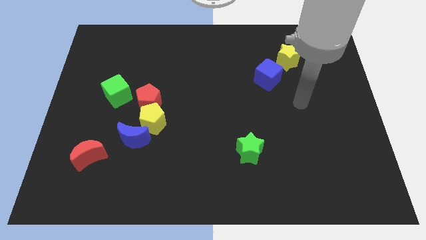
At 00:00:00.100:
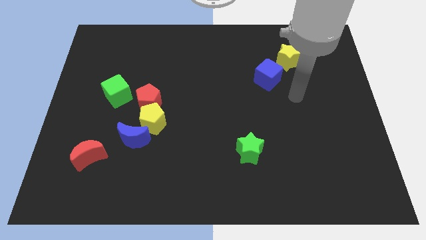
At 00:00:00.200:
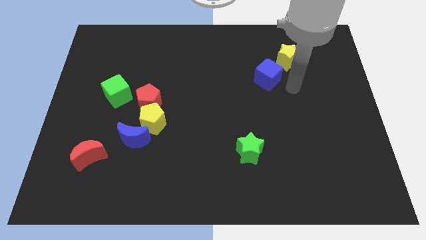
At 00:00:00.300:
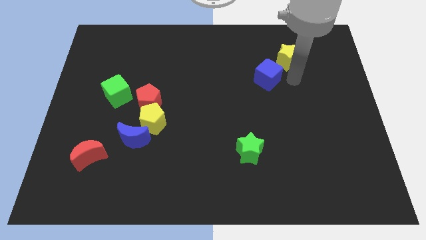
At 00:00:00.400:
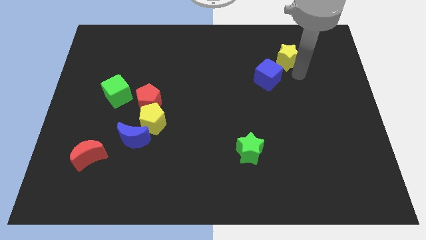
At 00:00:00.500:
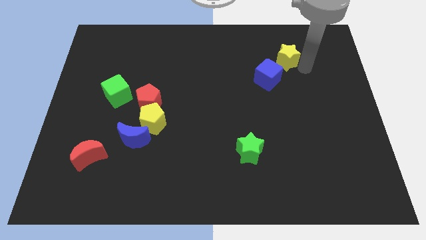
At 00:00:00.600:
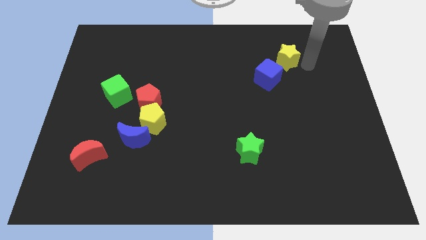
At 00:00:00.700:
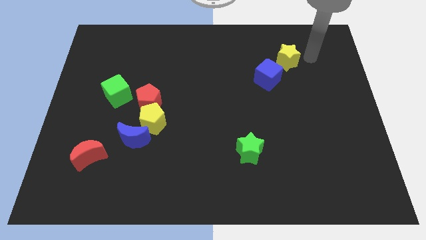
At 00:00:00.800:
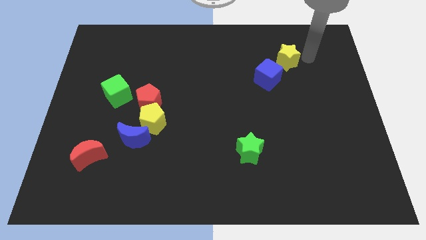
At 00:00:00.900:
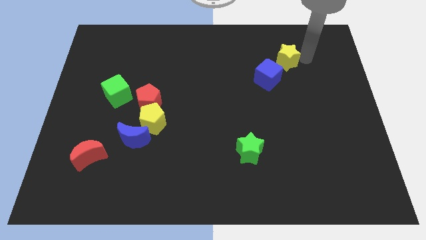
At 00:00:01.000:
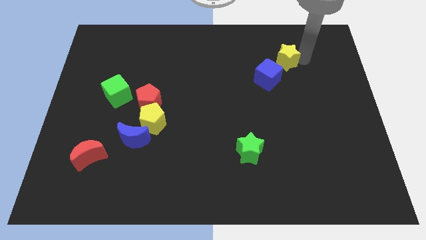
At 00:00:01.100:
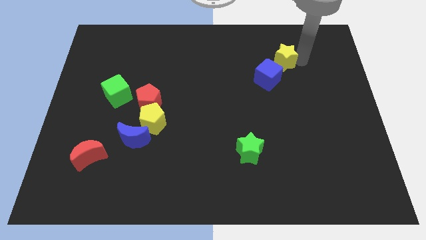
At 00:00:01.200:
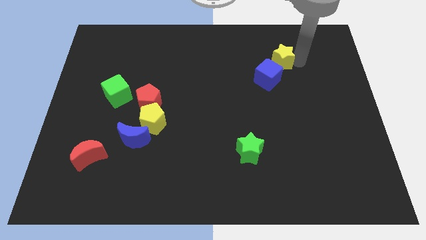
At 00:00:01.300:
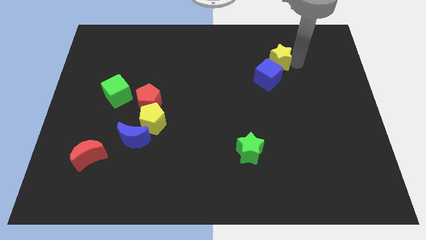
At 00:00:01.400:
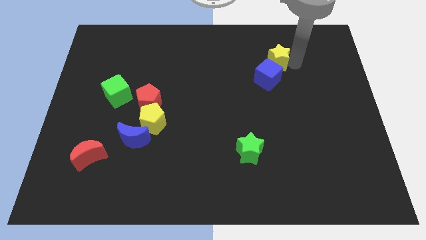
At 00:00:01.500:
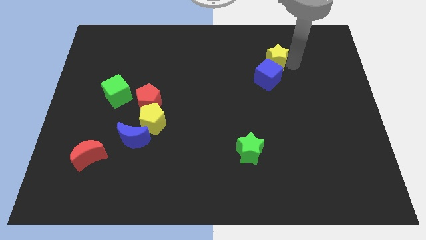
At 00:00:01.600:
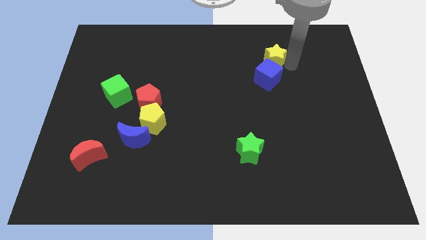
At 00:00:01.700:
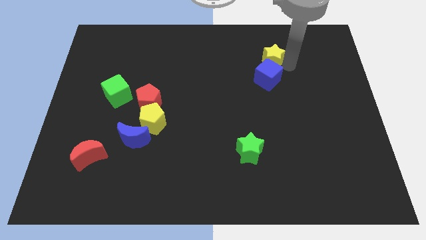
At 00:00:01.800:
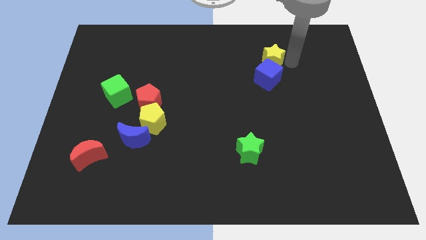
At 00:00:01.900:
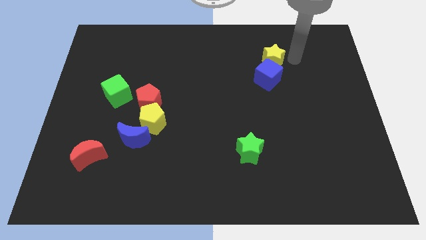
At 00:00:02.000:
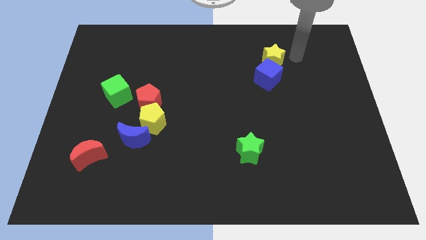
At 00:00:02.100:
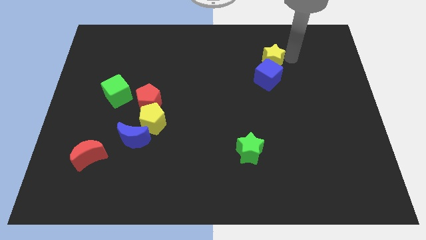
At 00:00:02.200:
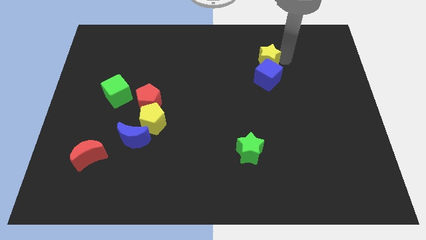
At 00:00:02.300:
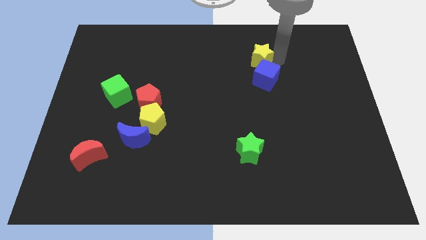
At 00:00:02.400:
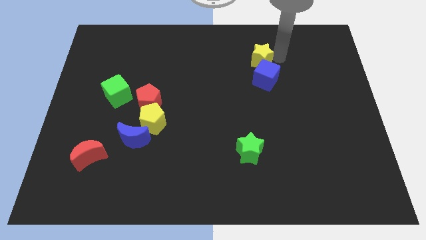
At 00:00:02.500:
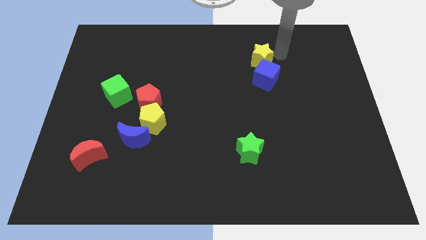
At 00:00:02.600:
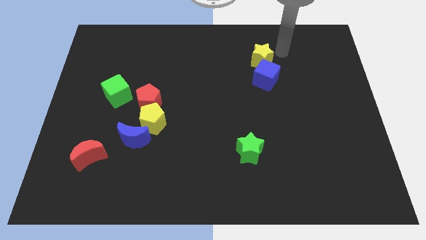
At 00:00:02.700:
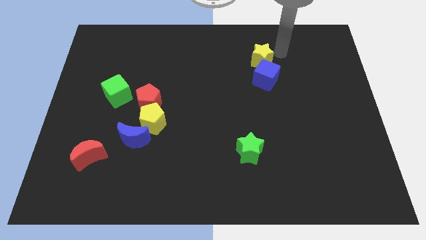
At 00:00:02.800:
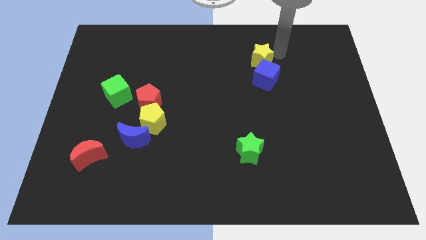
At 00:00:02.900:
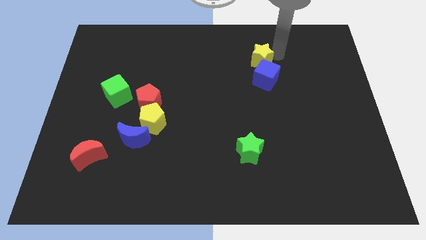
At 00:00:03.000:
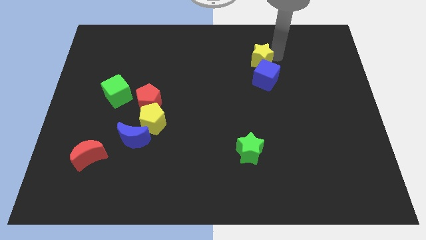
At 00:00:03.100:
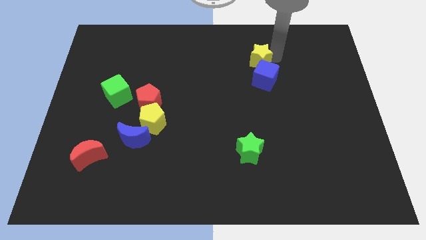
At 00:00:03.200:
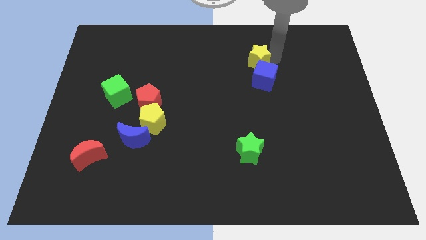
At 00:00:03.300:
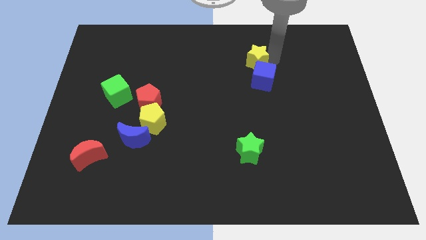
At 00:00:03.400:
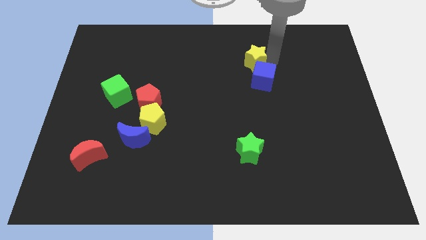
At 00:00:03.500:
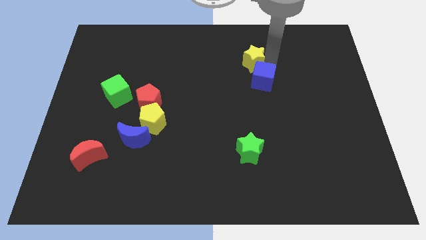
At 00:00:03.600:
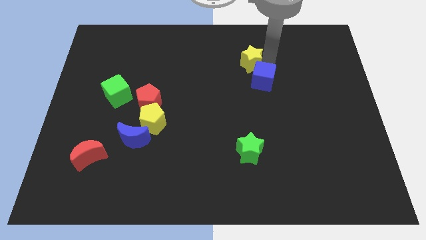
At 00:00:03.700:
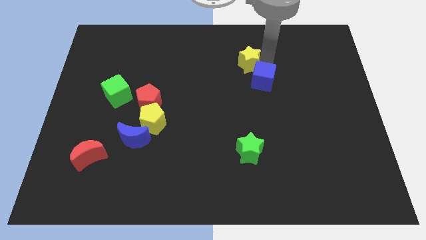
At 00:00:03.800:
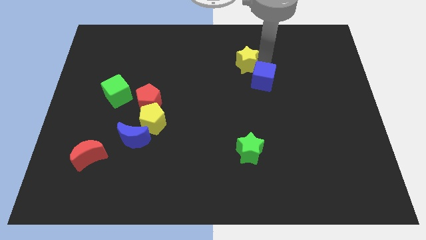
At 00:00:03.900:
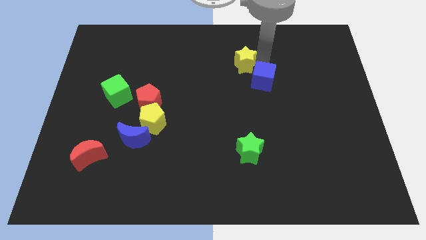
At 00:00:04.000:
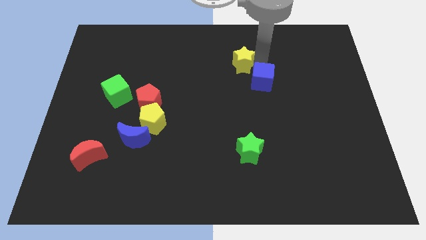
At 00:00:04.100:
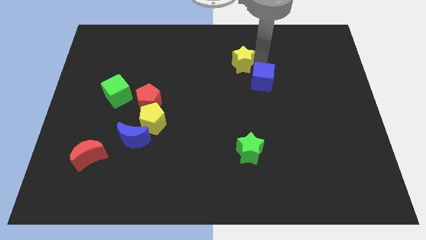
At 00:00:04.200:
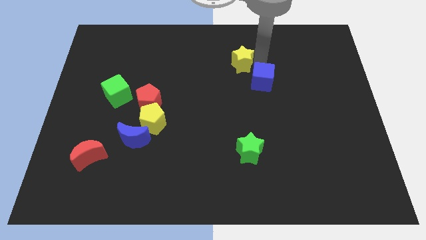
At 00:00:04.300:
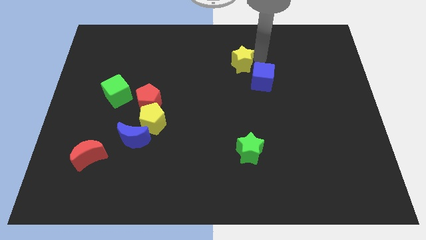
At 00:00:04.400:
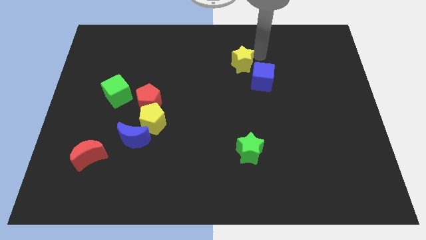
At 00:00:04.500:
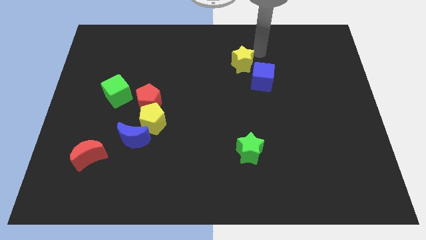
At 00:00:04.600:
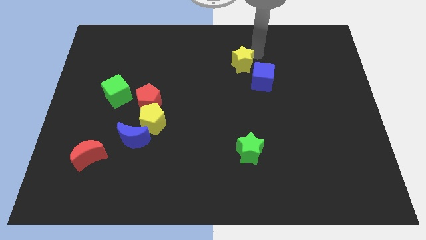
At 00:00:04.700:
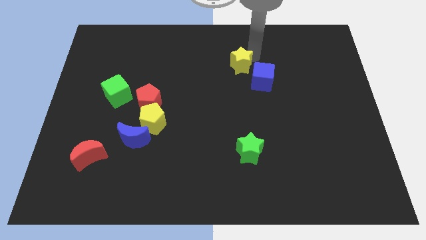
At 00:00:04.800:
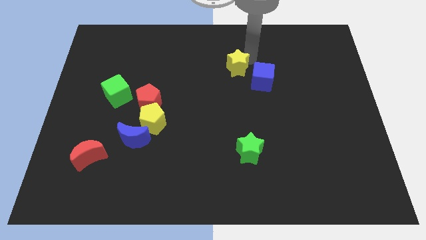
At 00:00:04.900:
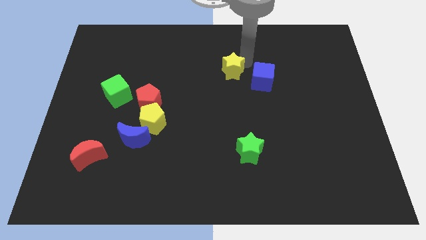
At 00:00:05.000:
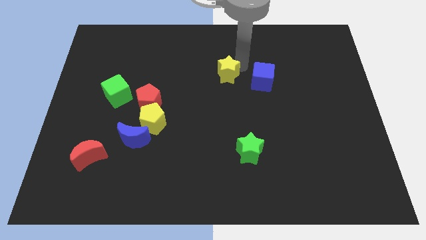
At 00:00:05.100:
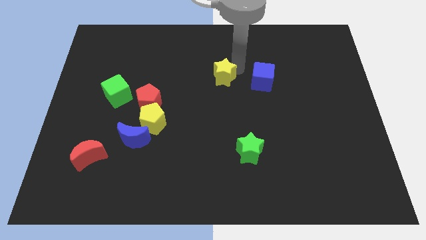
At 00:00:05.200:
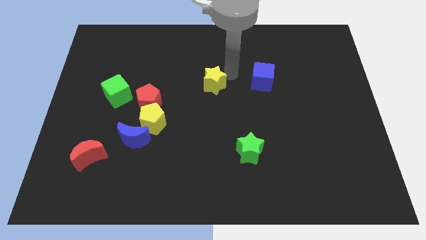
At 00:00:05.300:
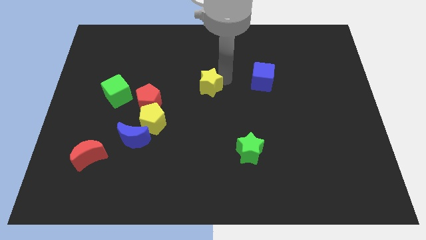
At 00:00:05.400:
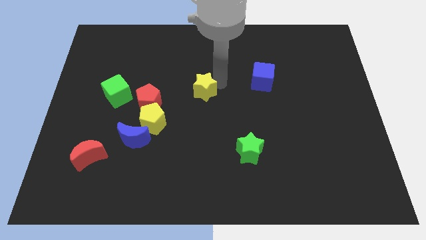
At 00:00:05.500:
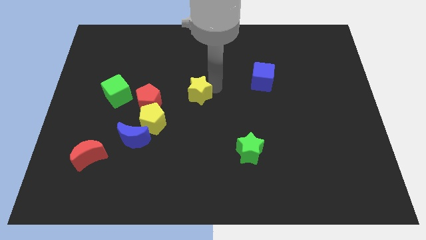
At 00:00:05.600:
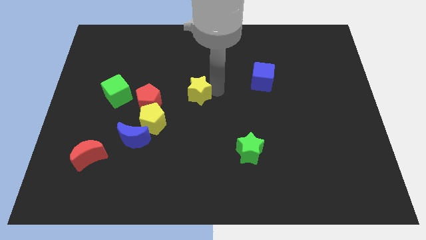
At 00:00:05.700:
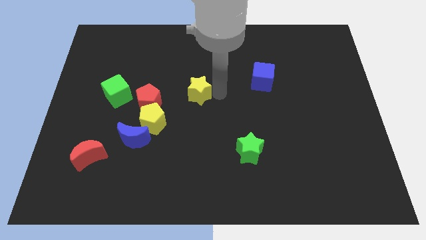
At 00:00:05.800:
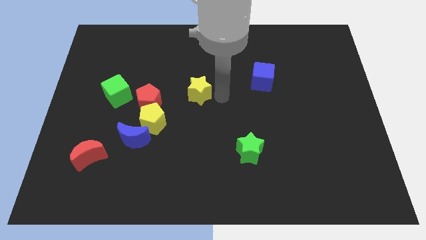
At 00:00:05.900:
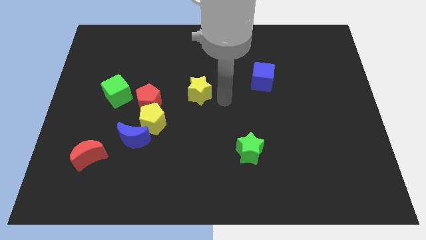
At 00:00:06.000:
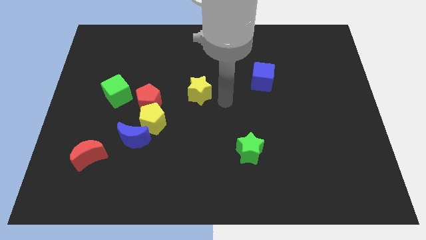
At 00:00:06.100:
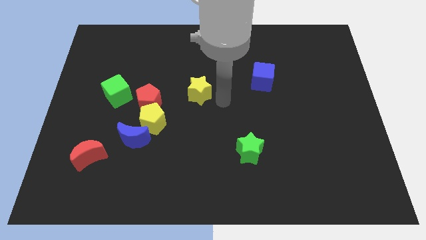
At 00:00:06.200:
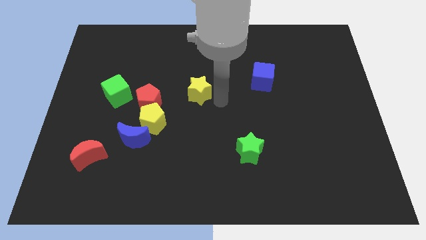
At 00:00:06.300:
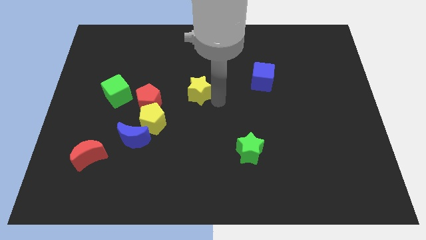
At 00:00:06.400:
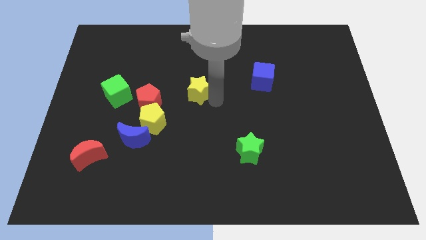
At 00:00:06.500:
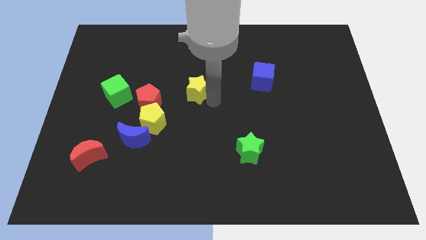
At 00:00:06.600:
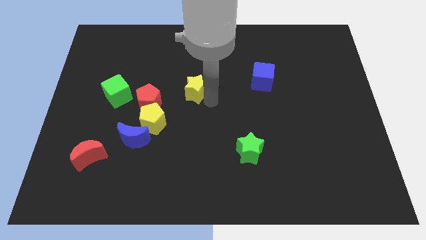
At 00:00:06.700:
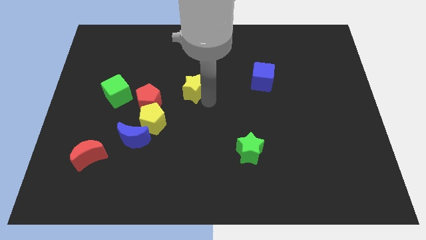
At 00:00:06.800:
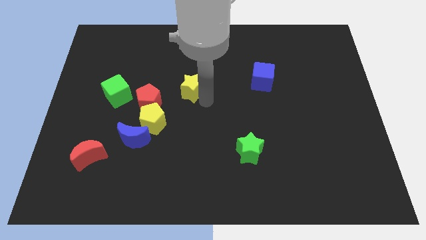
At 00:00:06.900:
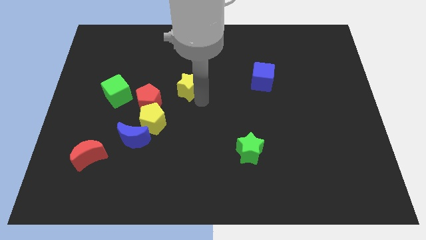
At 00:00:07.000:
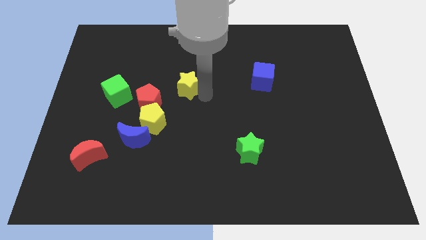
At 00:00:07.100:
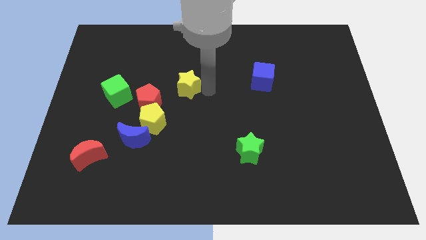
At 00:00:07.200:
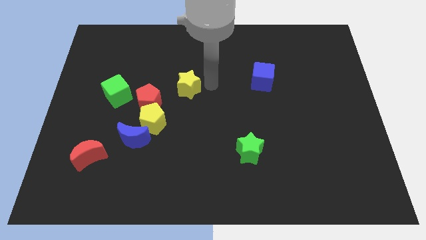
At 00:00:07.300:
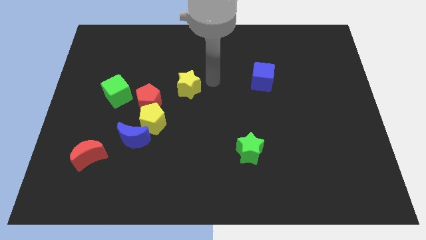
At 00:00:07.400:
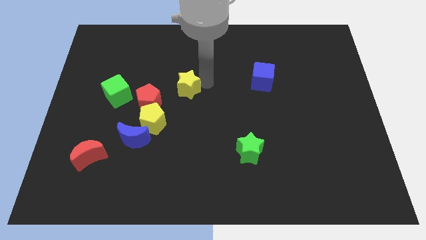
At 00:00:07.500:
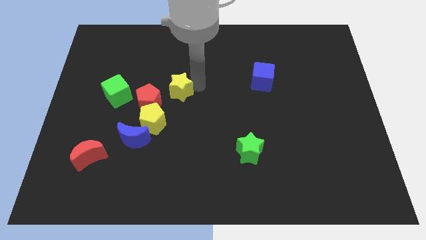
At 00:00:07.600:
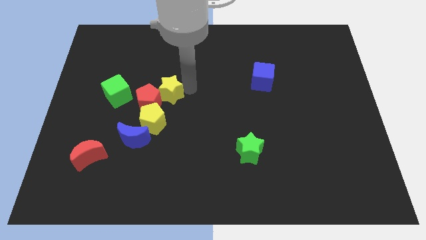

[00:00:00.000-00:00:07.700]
put the yellow star close to the red pentagon
